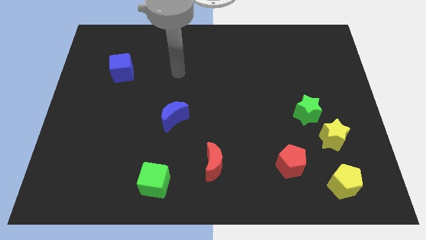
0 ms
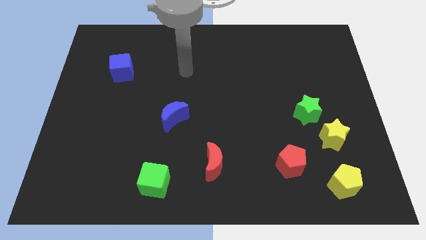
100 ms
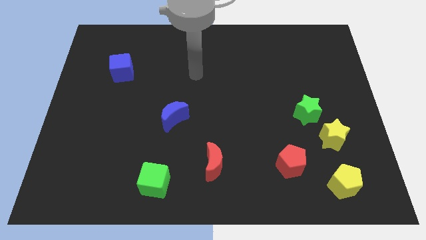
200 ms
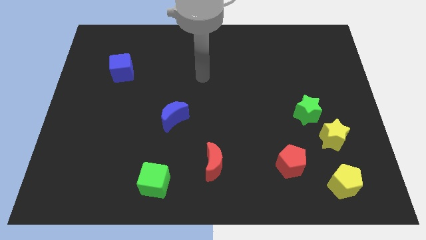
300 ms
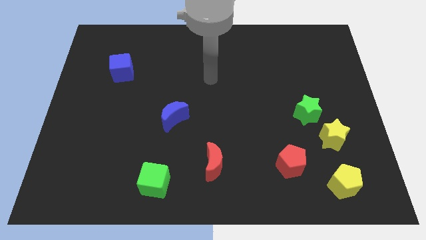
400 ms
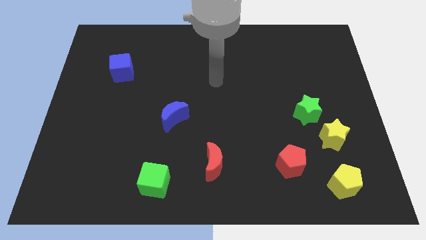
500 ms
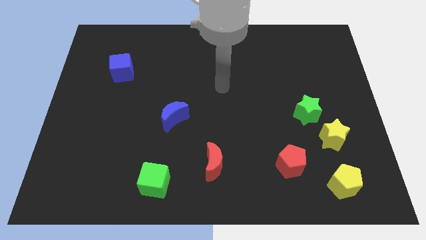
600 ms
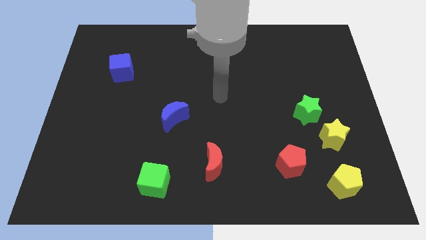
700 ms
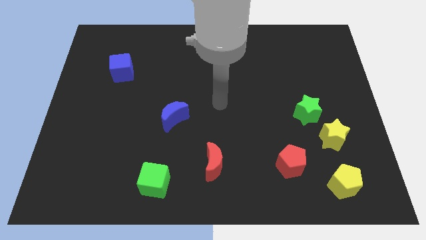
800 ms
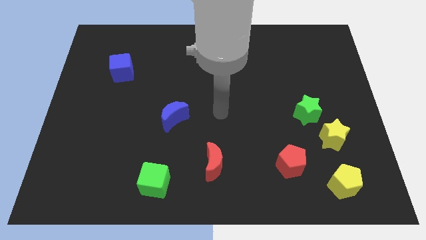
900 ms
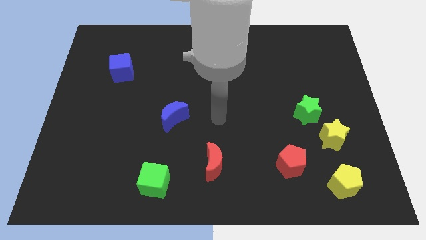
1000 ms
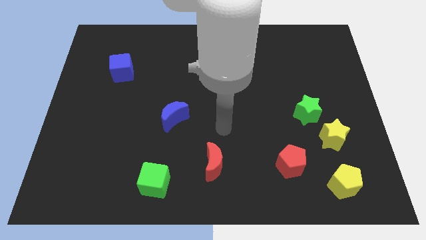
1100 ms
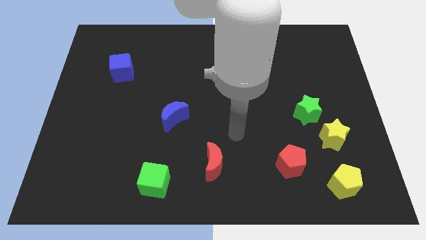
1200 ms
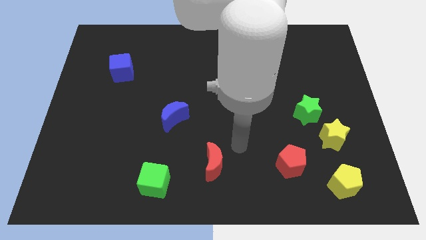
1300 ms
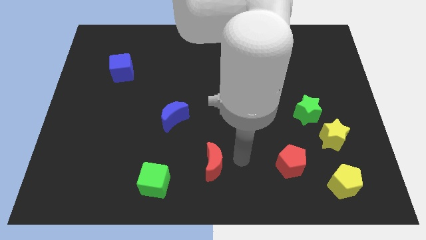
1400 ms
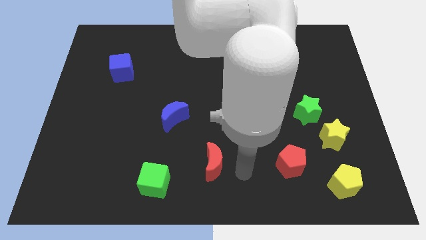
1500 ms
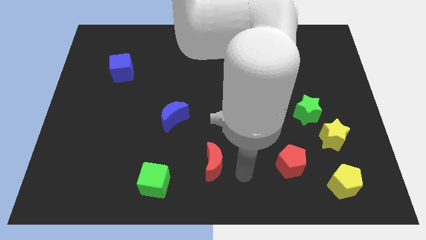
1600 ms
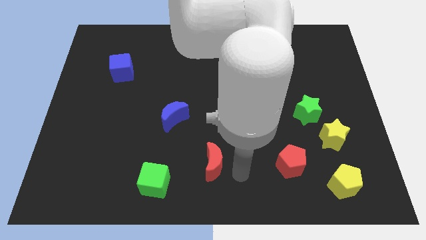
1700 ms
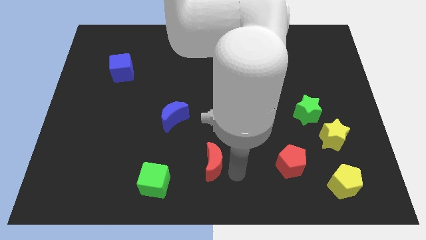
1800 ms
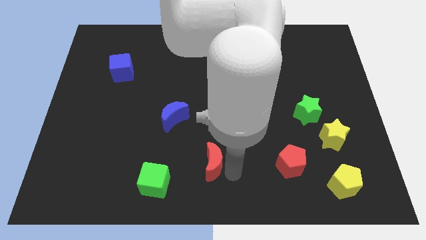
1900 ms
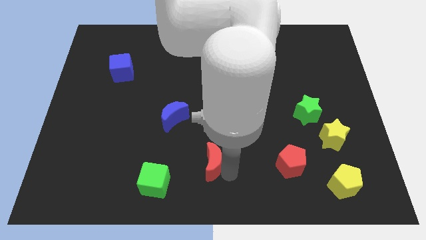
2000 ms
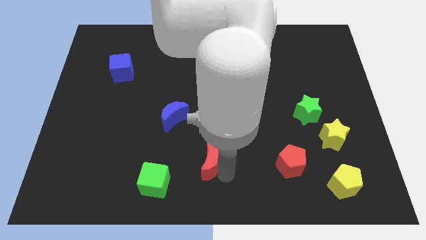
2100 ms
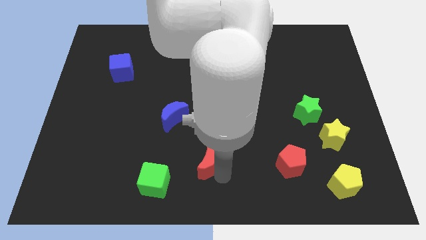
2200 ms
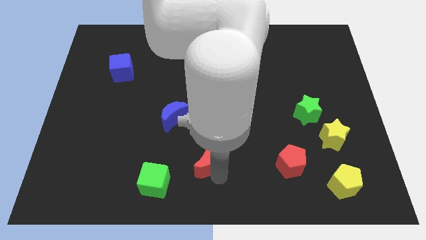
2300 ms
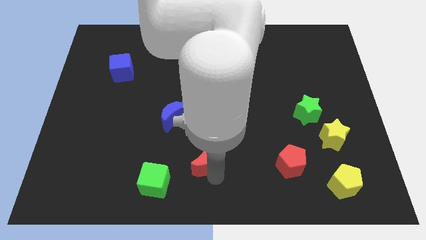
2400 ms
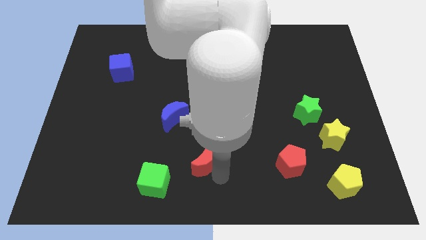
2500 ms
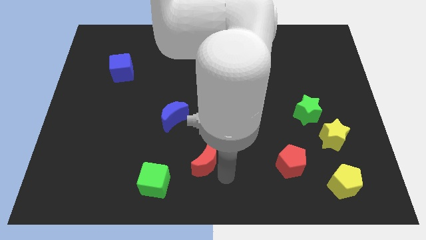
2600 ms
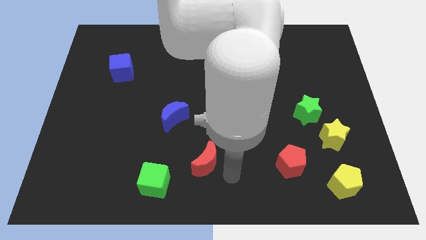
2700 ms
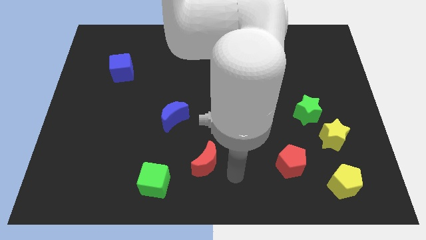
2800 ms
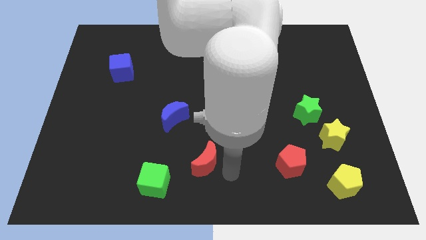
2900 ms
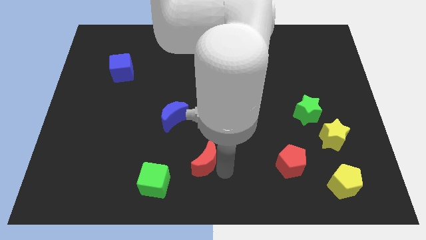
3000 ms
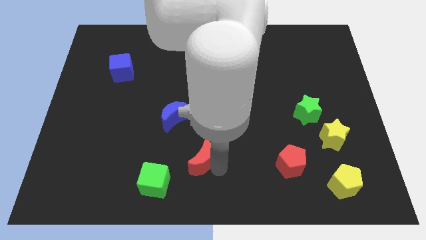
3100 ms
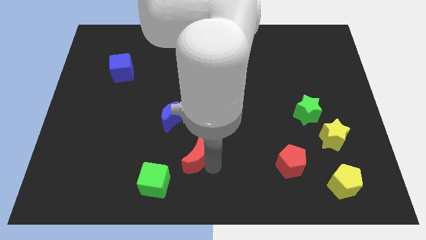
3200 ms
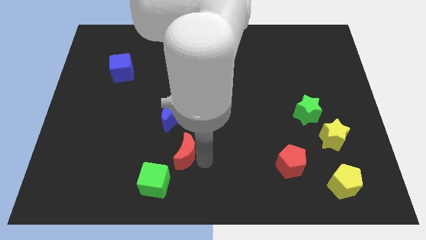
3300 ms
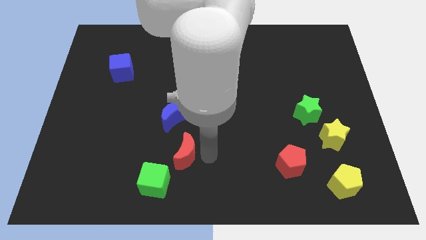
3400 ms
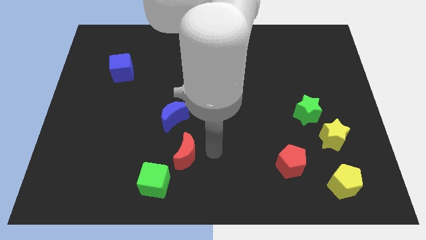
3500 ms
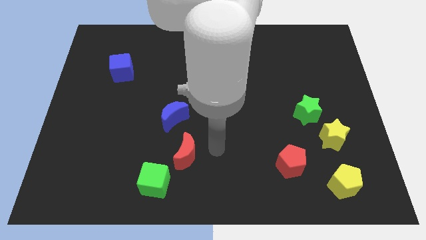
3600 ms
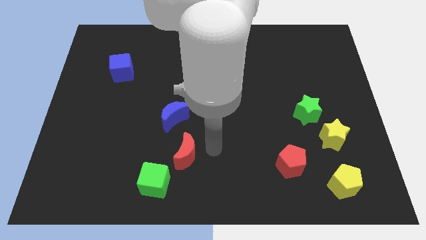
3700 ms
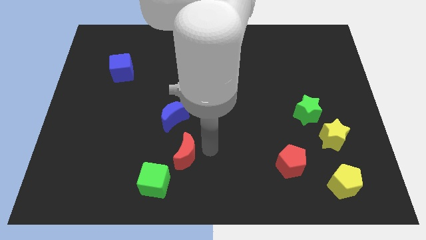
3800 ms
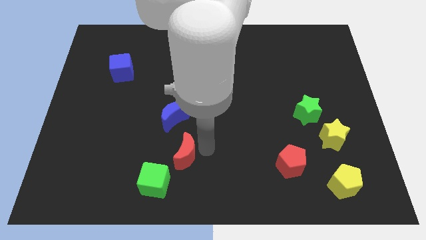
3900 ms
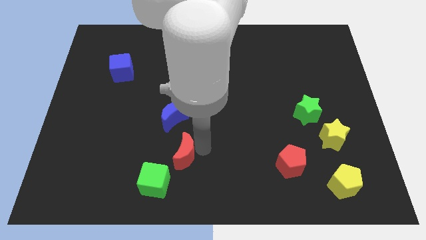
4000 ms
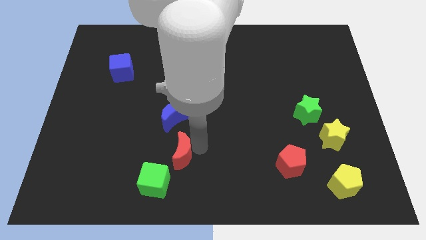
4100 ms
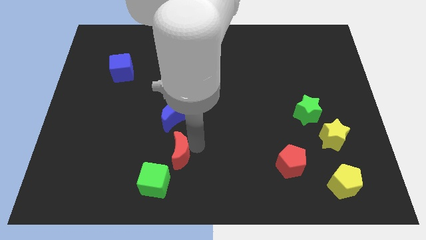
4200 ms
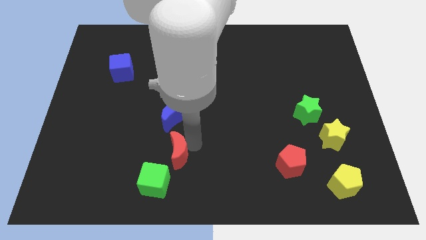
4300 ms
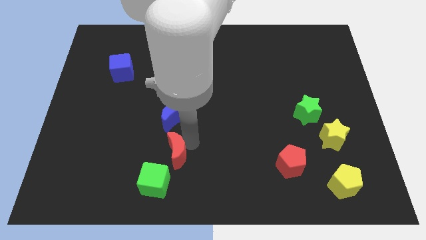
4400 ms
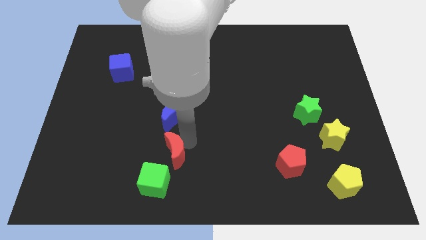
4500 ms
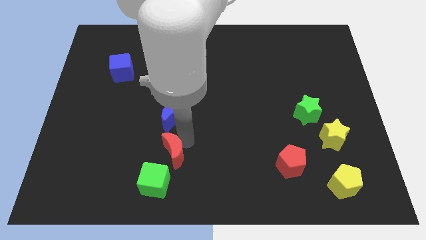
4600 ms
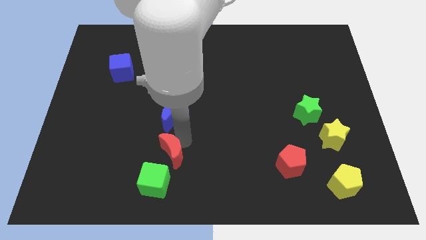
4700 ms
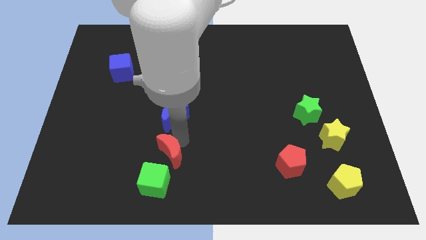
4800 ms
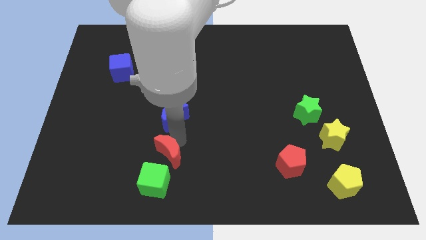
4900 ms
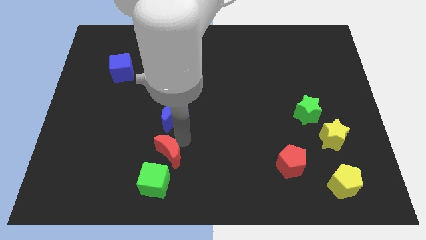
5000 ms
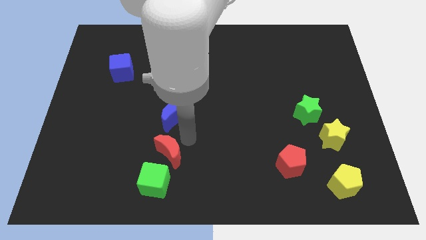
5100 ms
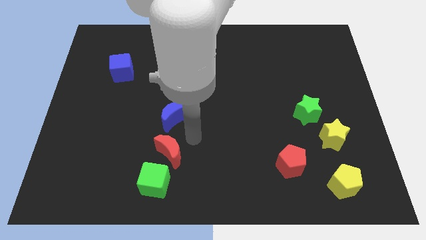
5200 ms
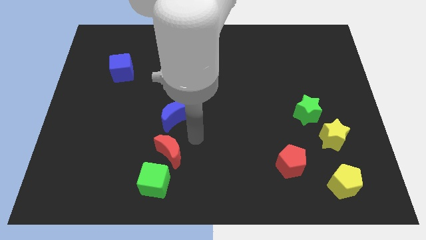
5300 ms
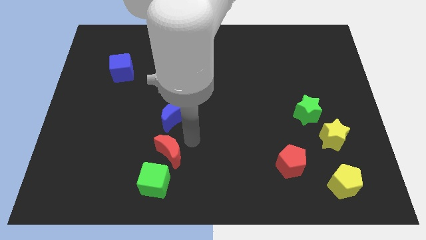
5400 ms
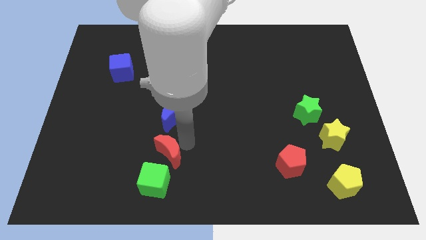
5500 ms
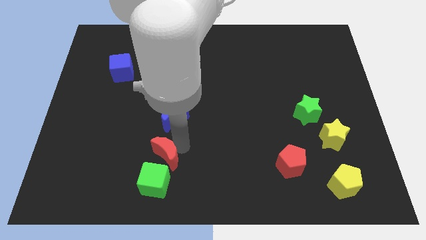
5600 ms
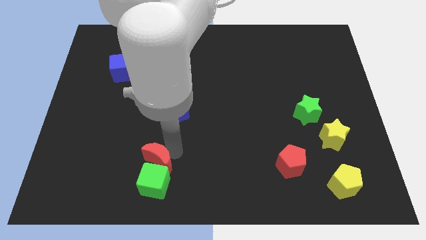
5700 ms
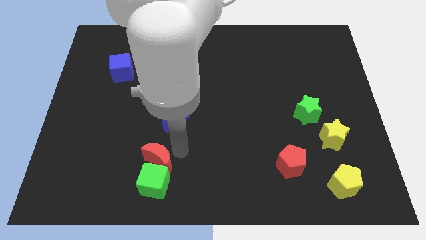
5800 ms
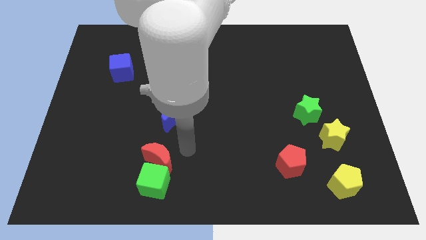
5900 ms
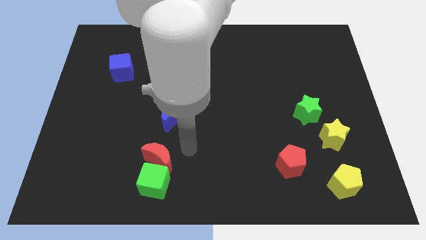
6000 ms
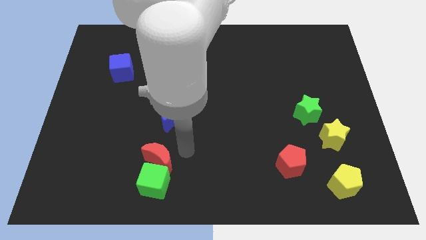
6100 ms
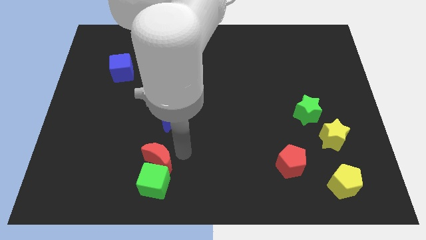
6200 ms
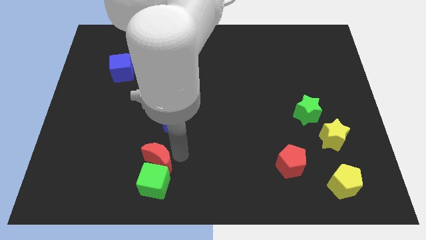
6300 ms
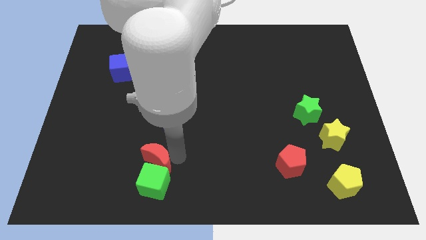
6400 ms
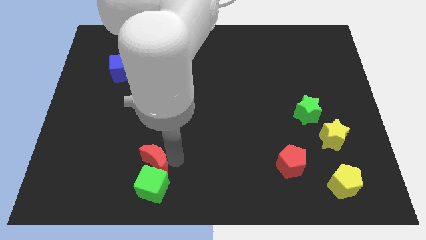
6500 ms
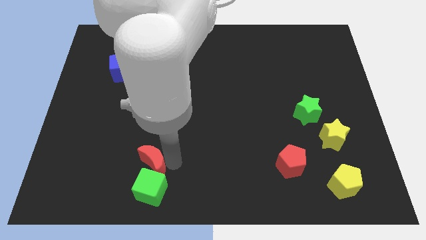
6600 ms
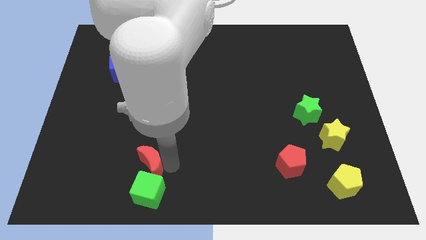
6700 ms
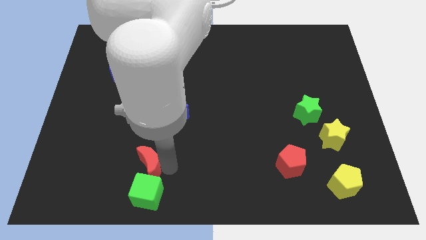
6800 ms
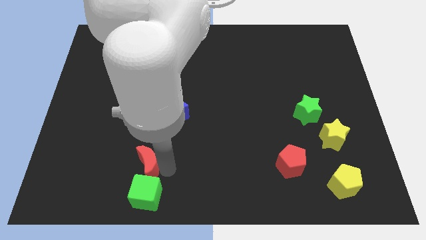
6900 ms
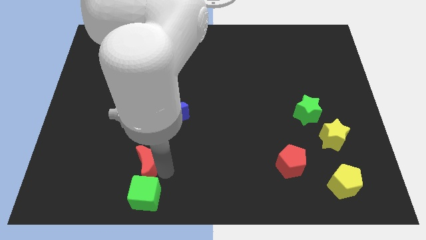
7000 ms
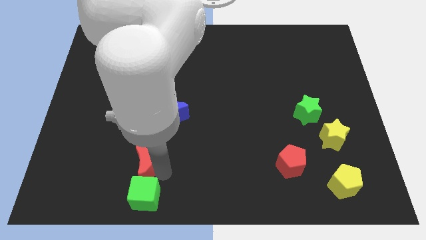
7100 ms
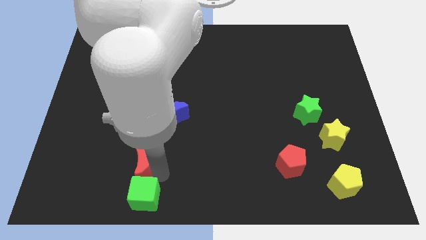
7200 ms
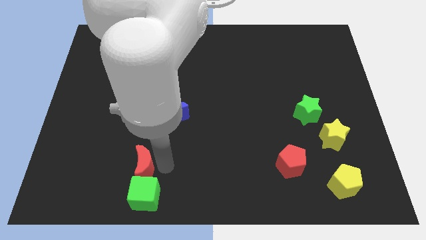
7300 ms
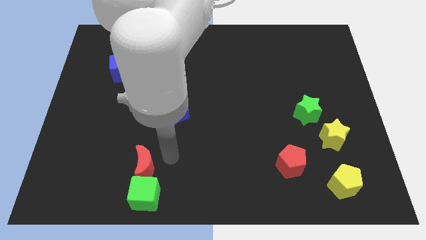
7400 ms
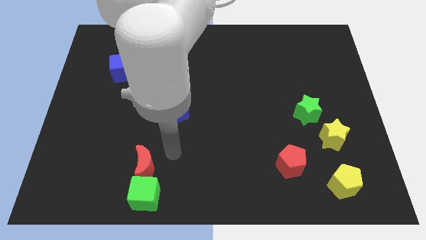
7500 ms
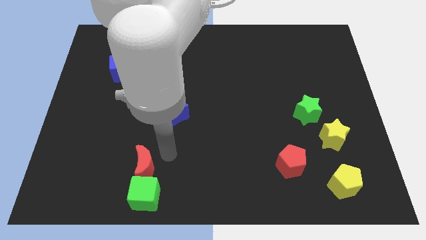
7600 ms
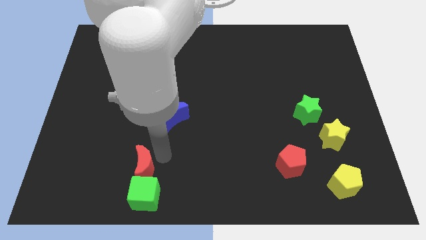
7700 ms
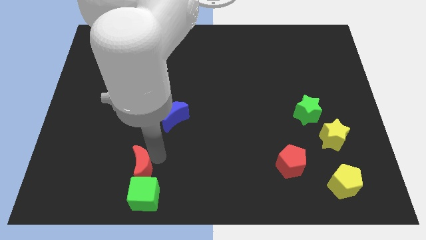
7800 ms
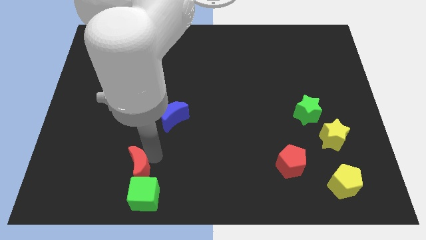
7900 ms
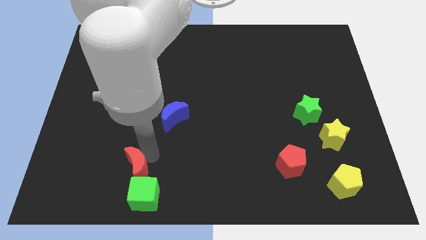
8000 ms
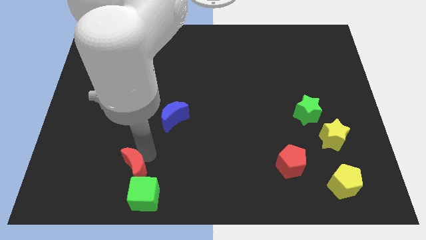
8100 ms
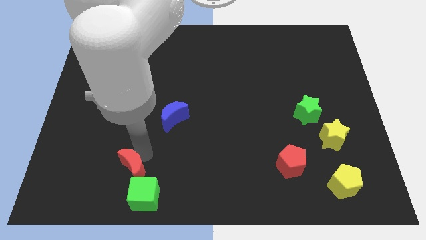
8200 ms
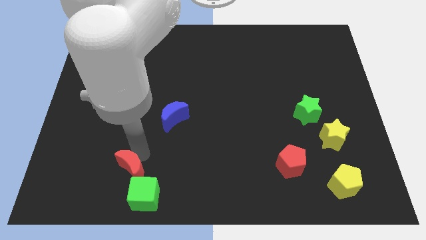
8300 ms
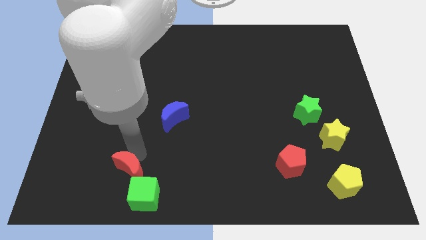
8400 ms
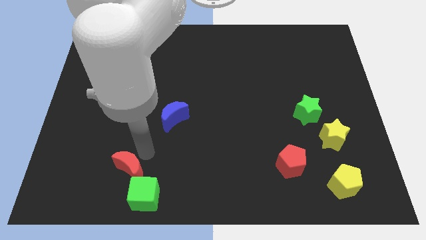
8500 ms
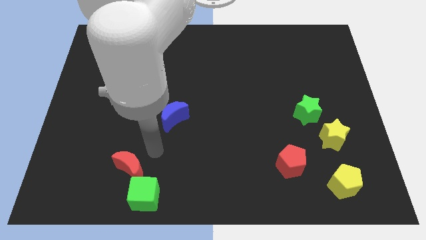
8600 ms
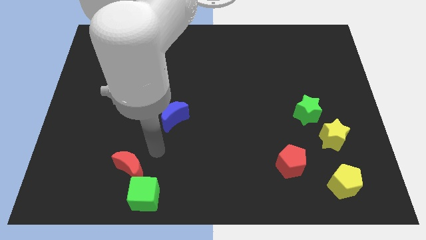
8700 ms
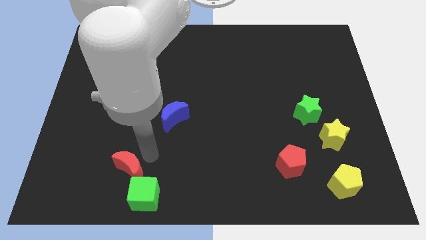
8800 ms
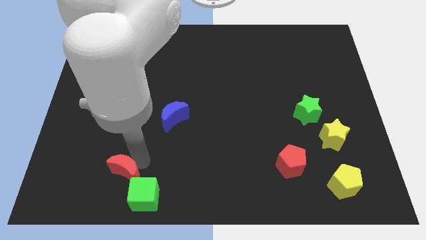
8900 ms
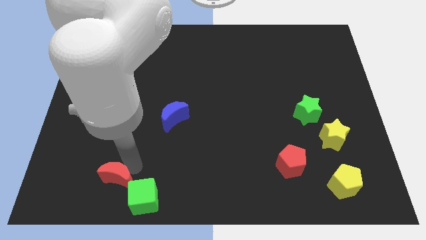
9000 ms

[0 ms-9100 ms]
put the red moon to the left side of the green cube
